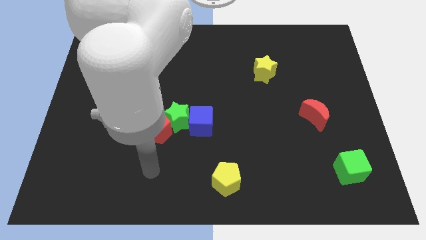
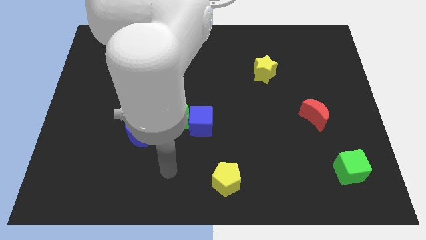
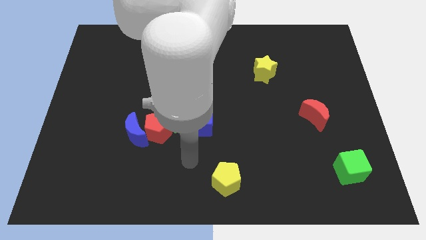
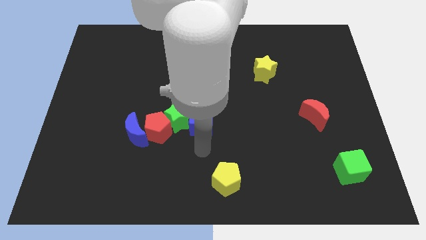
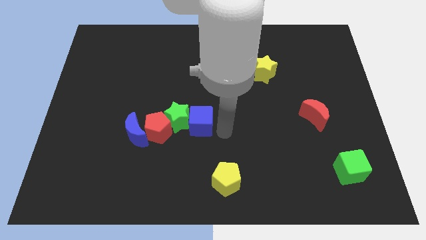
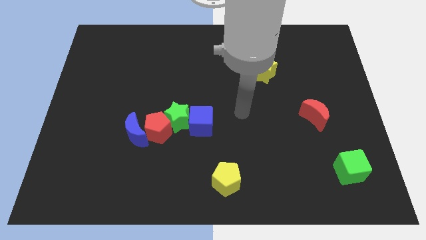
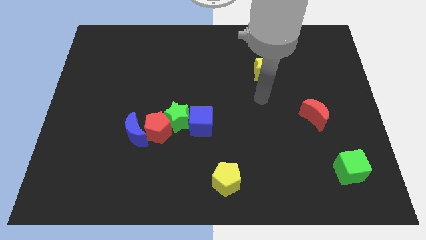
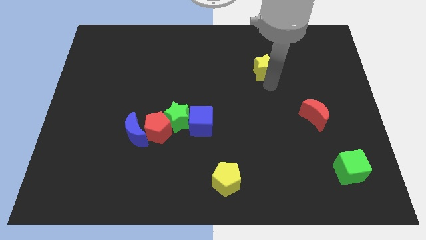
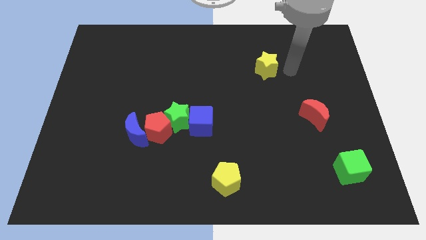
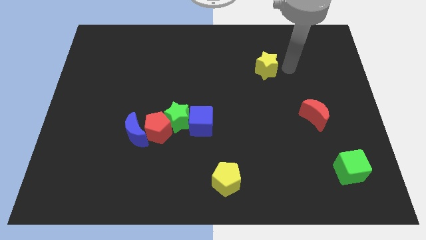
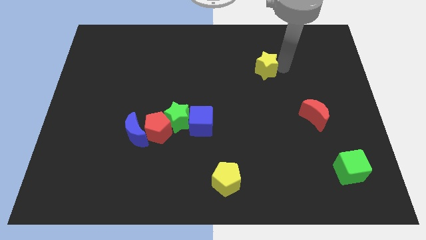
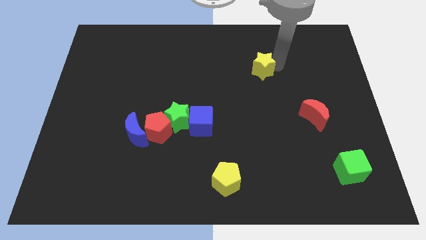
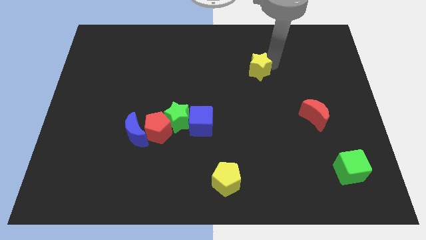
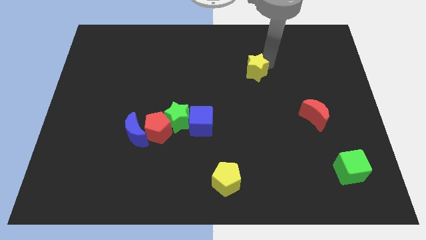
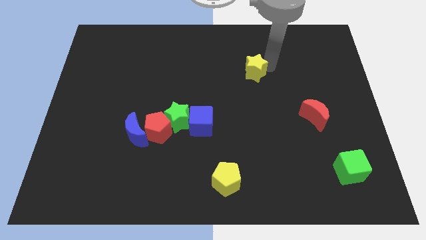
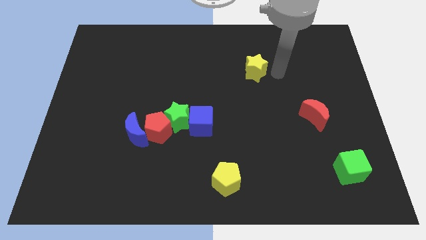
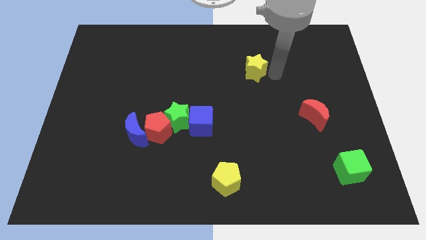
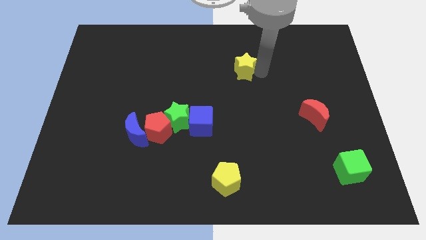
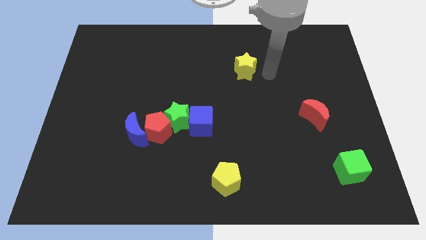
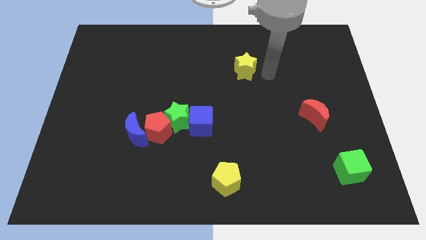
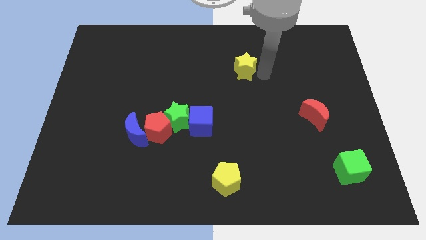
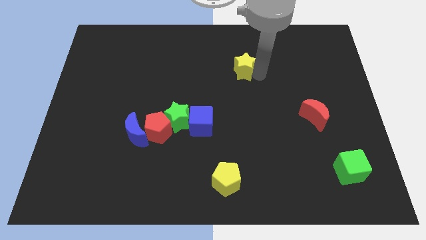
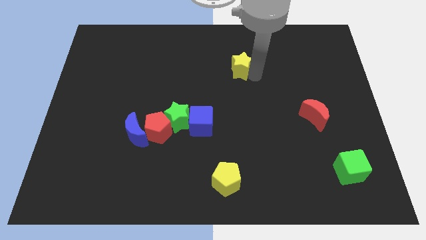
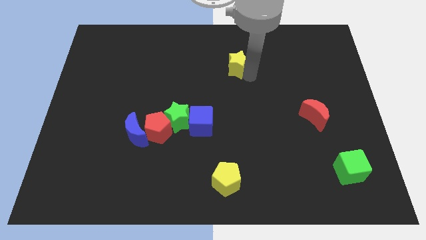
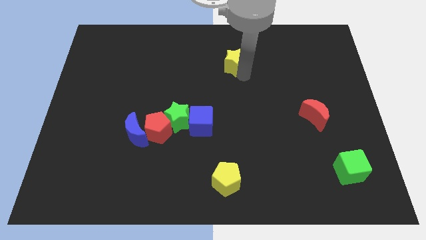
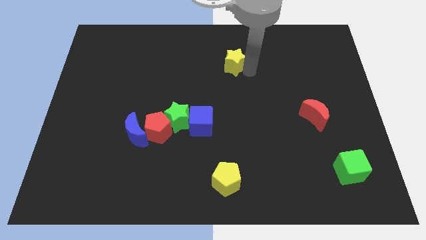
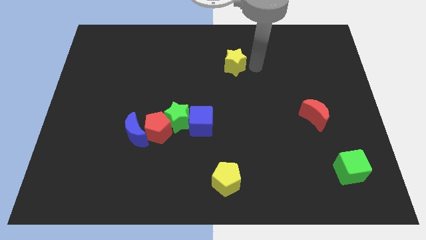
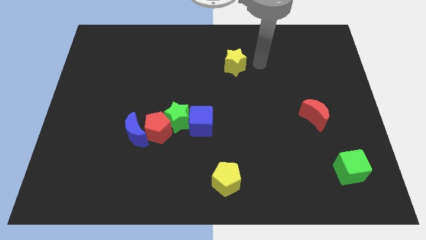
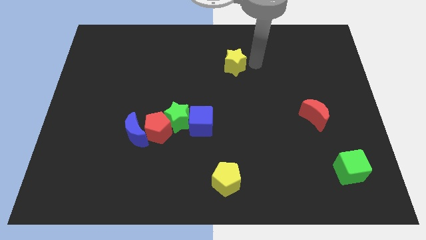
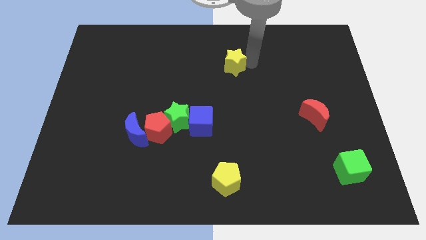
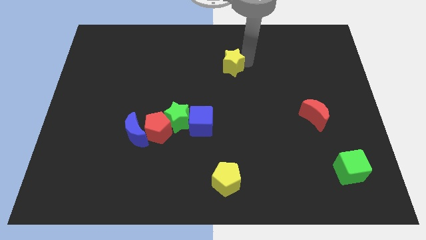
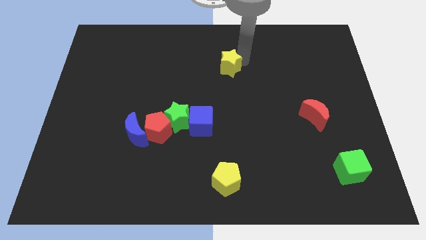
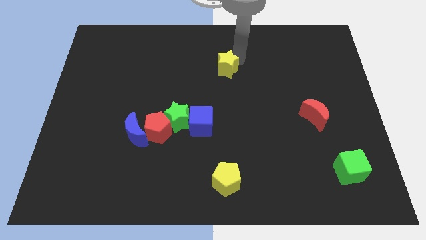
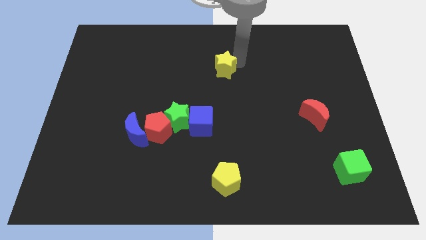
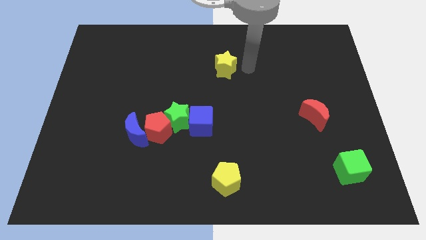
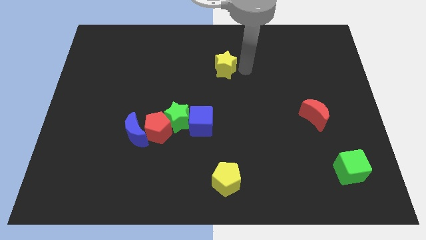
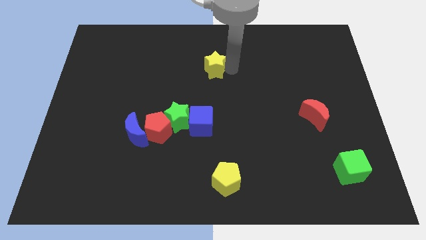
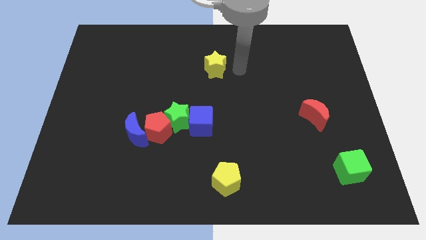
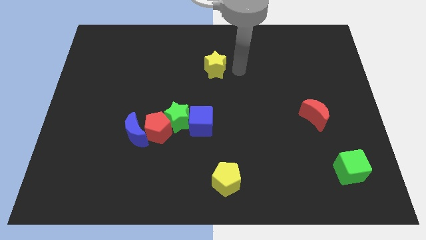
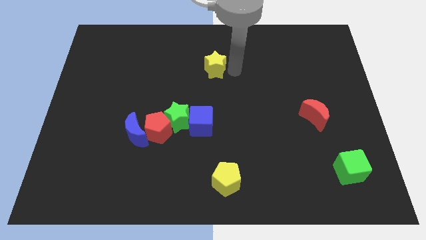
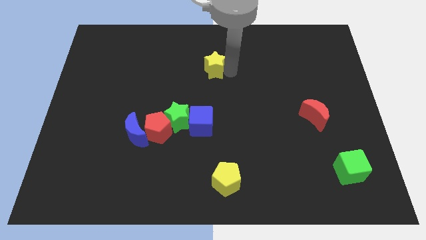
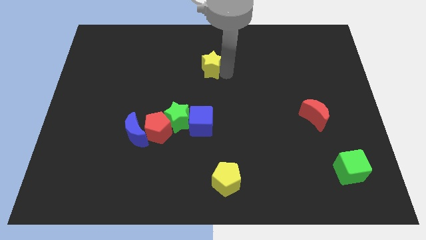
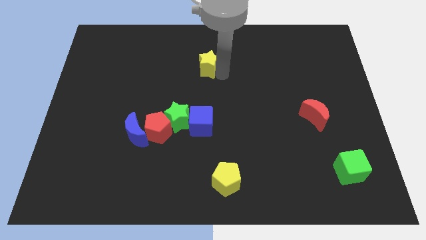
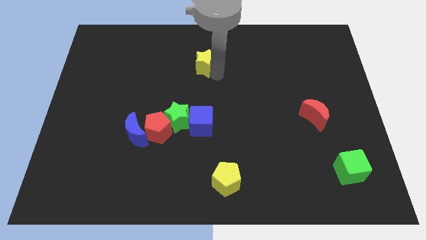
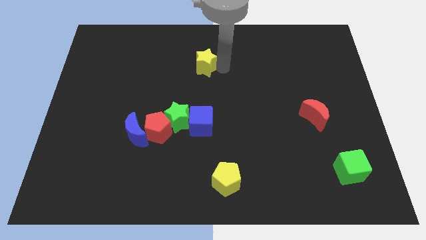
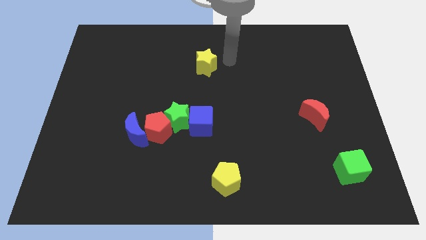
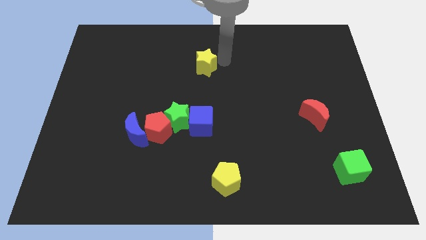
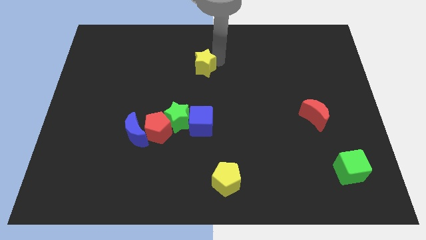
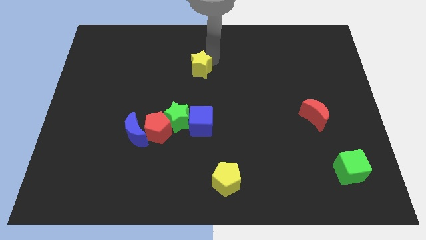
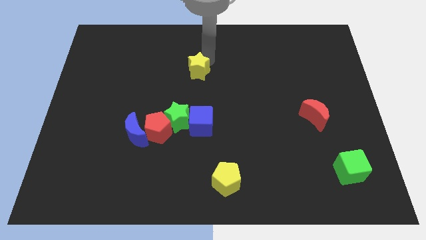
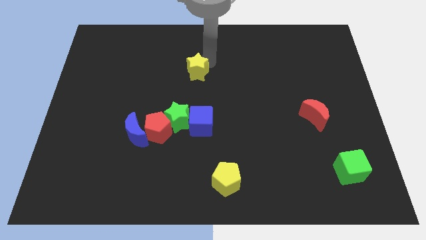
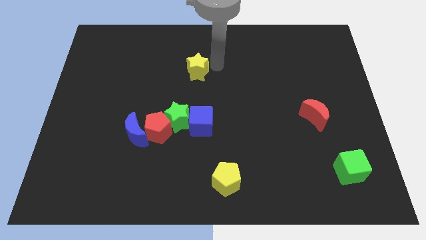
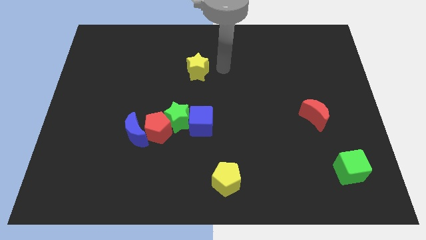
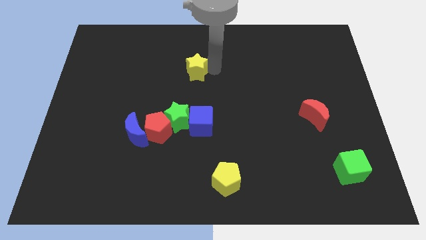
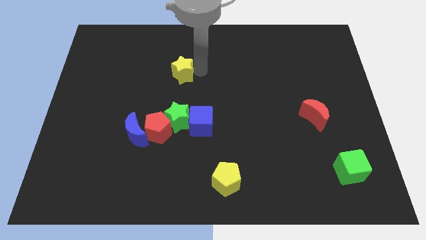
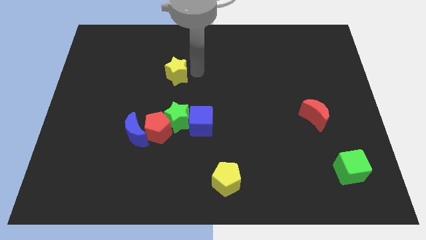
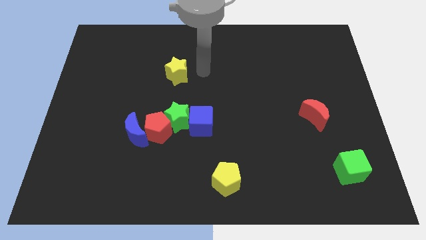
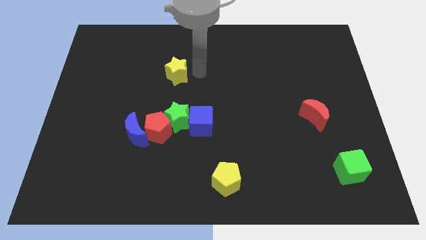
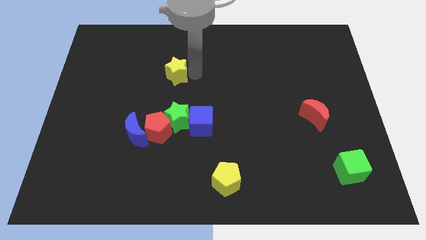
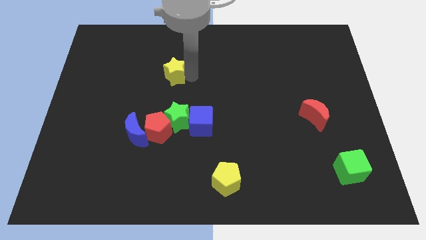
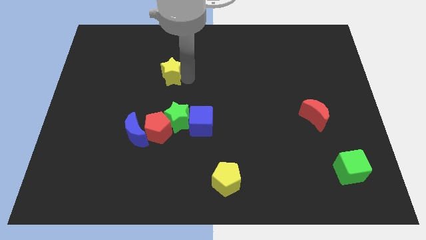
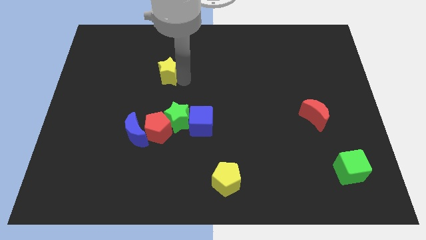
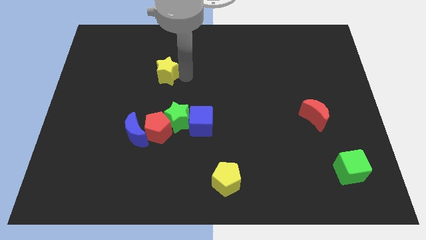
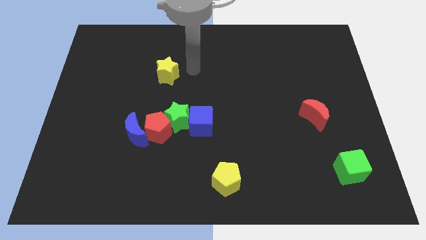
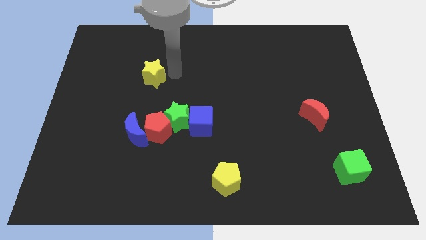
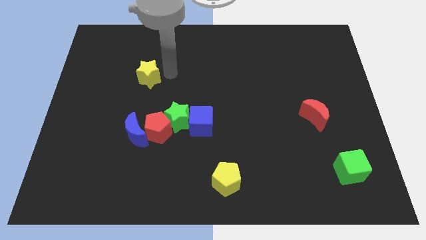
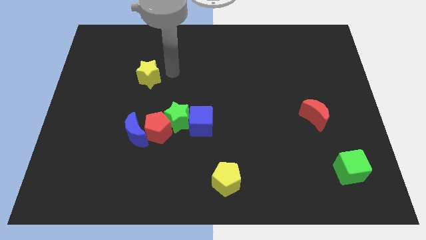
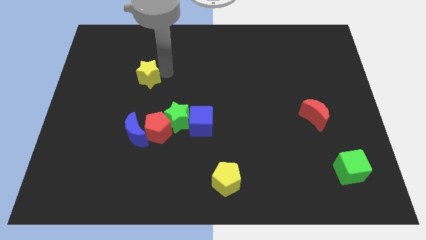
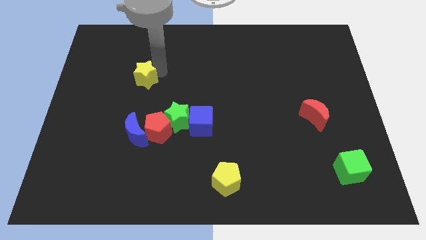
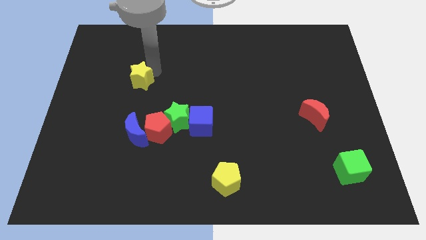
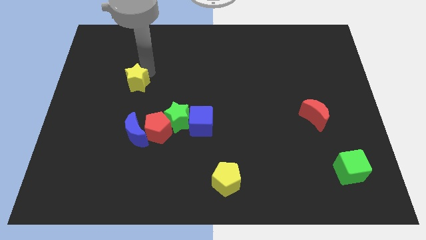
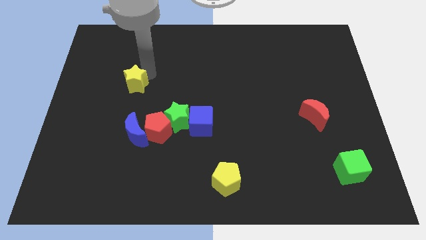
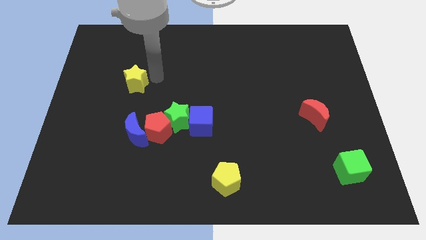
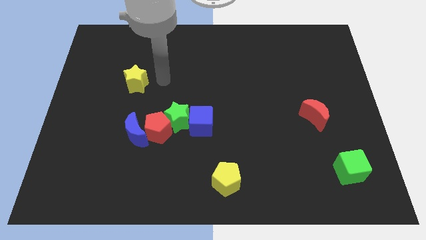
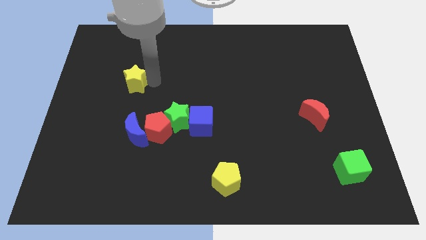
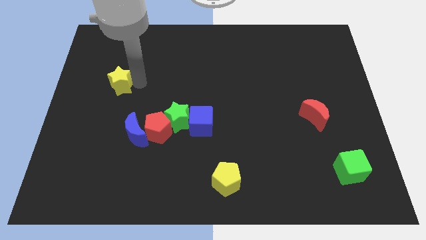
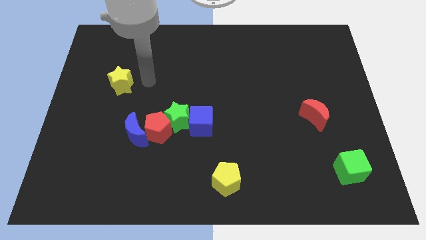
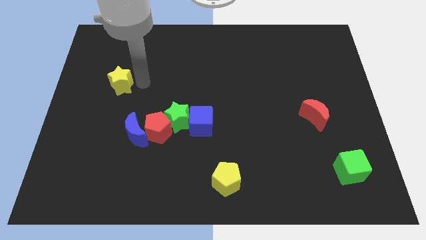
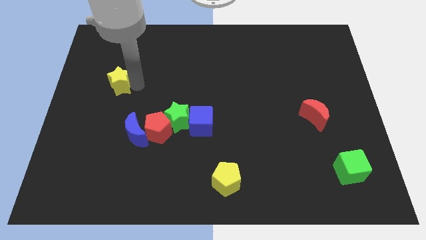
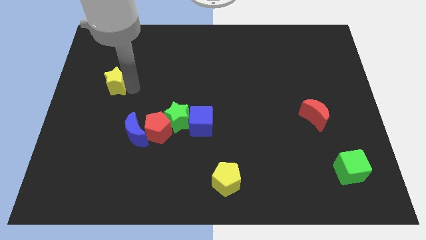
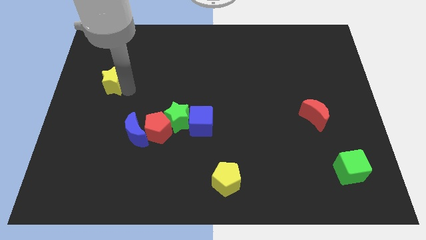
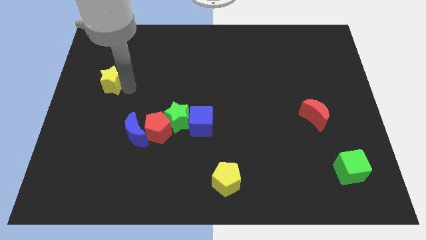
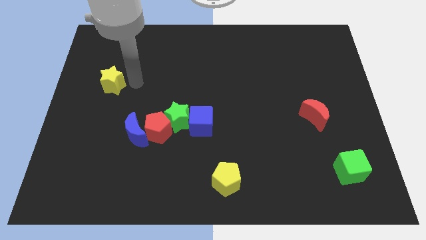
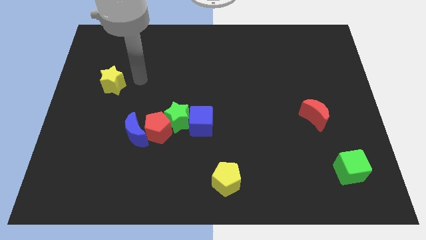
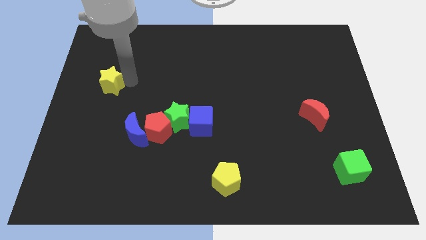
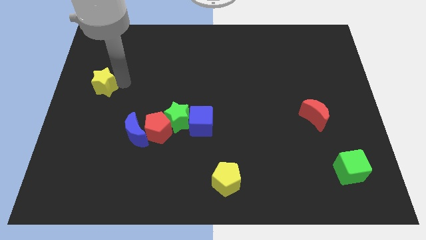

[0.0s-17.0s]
put the yellow star to the left side of the board
